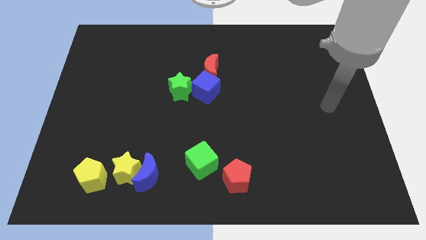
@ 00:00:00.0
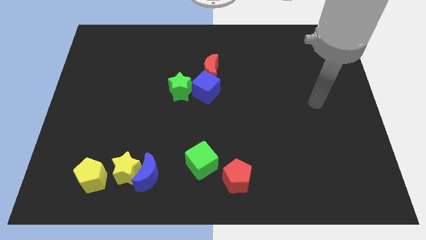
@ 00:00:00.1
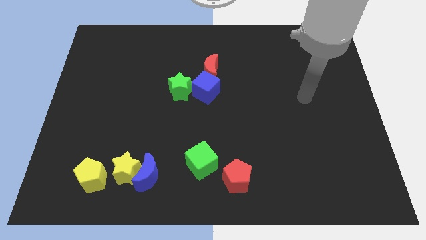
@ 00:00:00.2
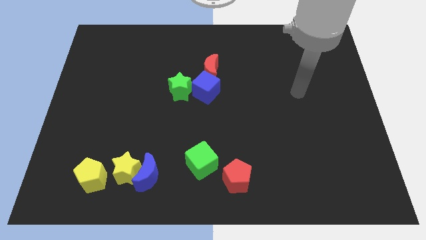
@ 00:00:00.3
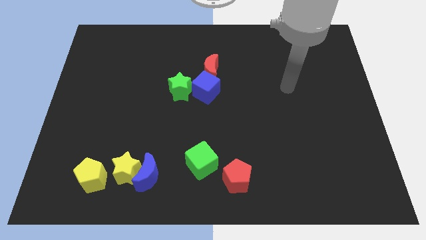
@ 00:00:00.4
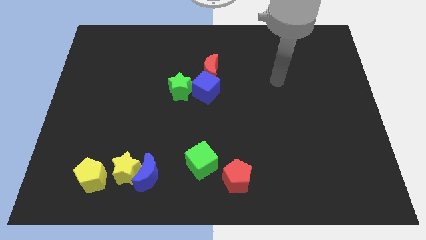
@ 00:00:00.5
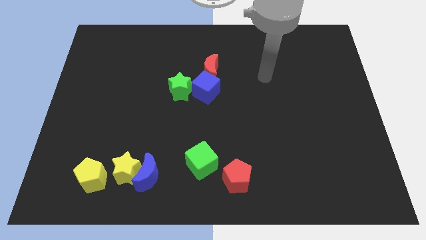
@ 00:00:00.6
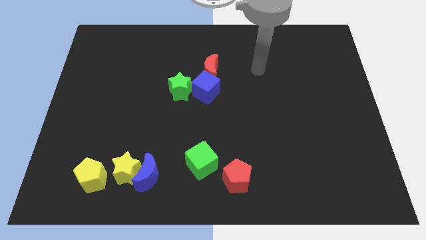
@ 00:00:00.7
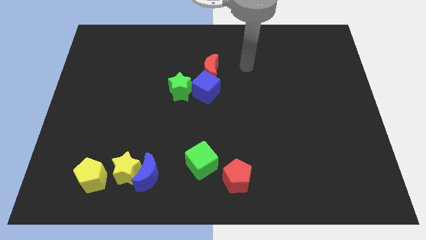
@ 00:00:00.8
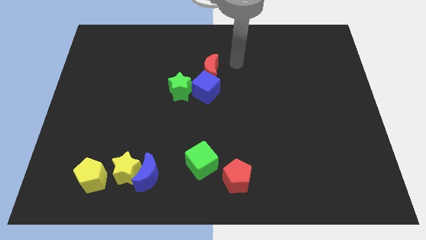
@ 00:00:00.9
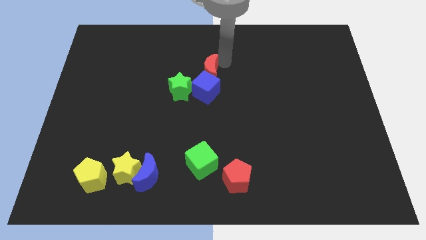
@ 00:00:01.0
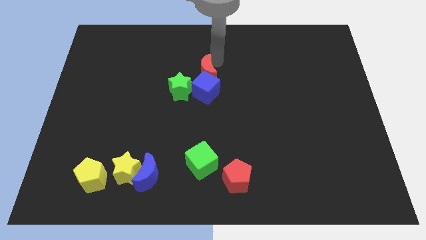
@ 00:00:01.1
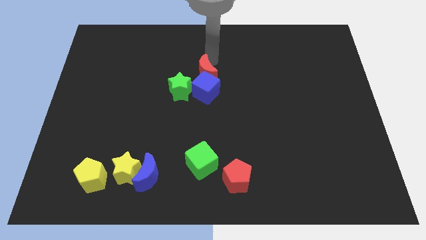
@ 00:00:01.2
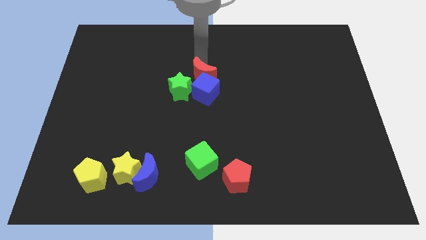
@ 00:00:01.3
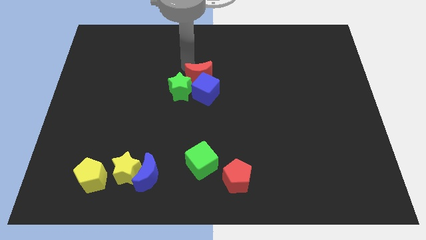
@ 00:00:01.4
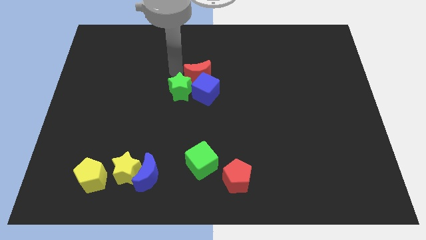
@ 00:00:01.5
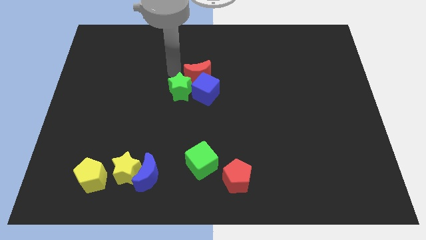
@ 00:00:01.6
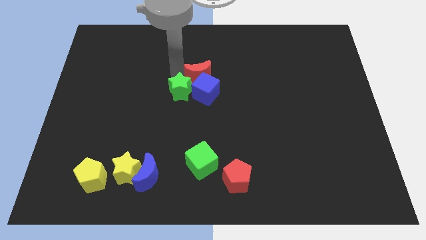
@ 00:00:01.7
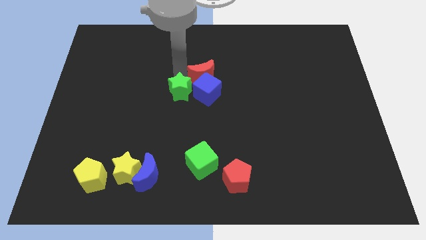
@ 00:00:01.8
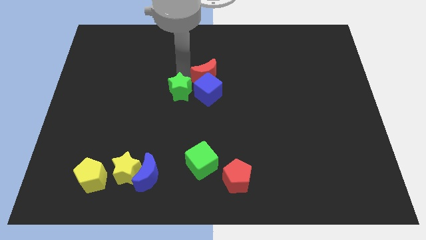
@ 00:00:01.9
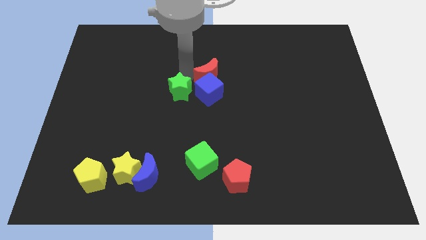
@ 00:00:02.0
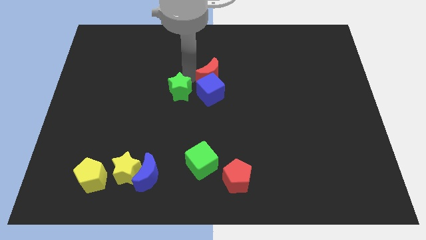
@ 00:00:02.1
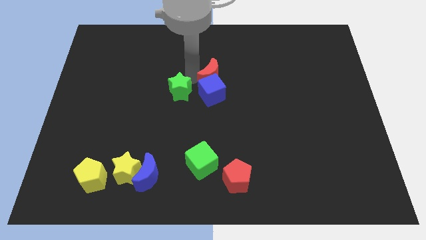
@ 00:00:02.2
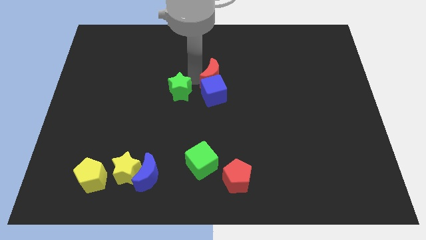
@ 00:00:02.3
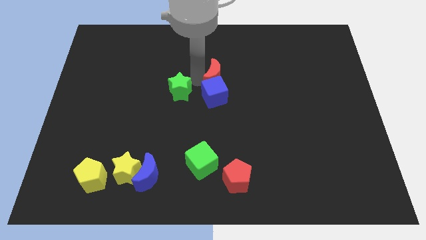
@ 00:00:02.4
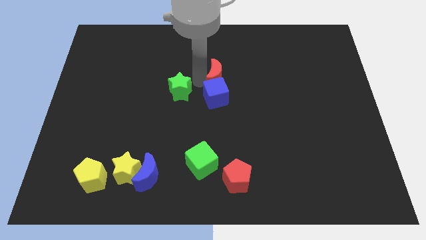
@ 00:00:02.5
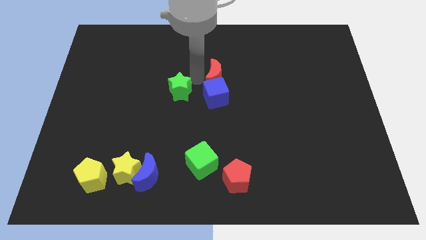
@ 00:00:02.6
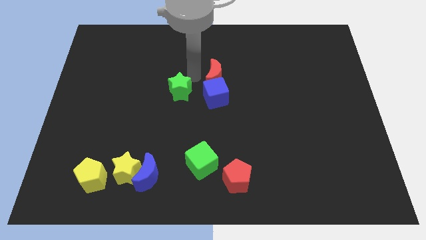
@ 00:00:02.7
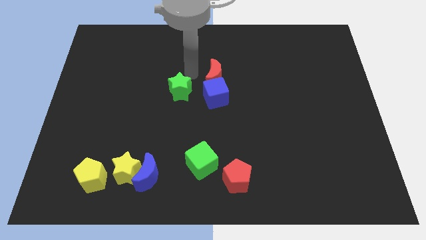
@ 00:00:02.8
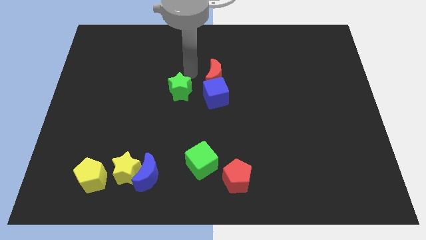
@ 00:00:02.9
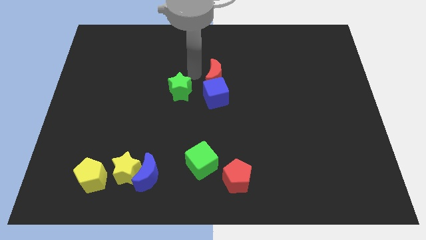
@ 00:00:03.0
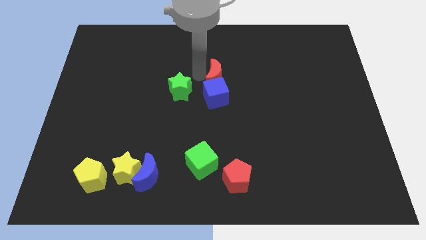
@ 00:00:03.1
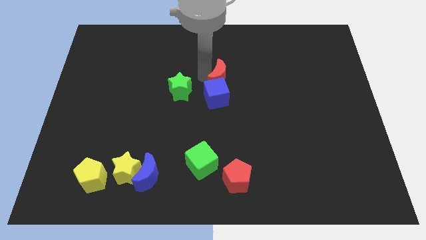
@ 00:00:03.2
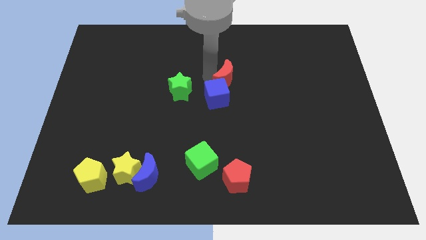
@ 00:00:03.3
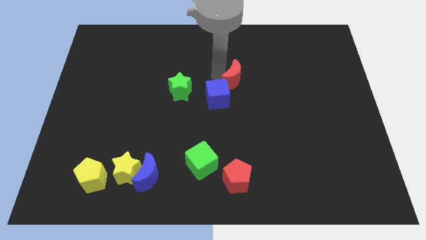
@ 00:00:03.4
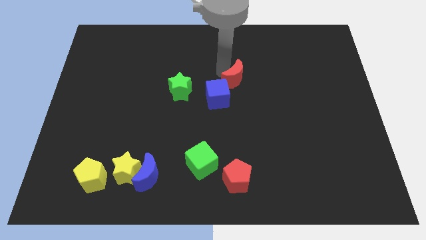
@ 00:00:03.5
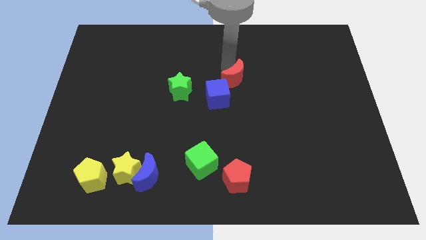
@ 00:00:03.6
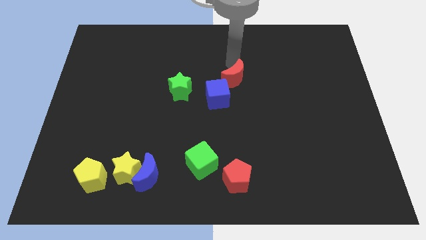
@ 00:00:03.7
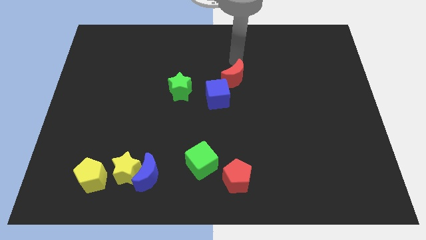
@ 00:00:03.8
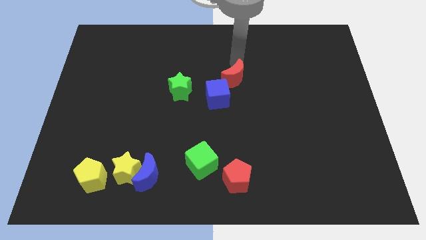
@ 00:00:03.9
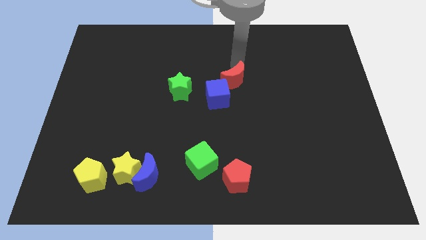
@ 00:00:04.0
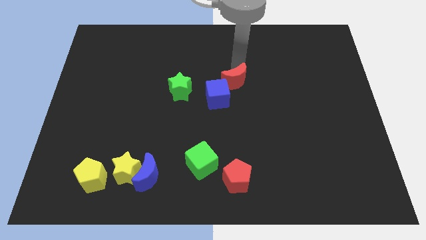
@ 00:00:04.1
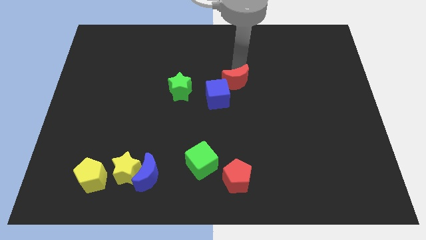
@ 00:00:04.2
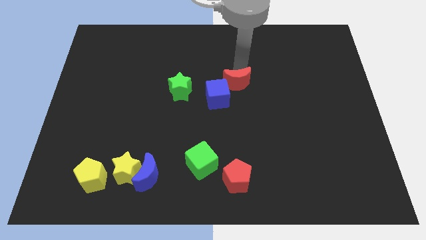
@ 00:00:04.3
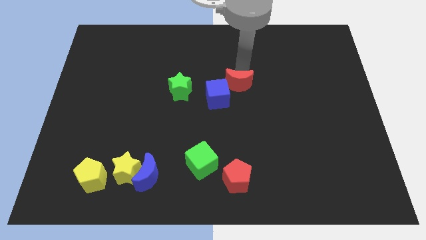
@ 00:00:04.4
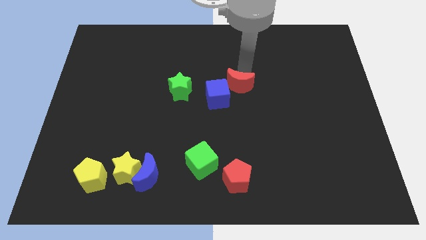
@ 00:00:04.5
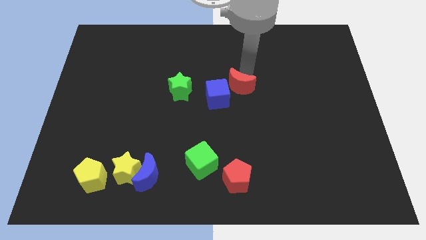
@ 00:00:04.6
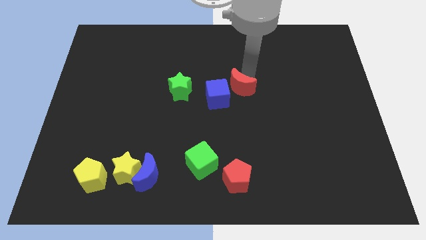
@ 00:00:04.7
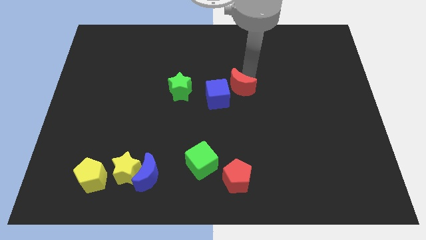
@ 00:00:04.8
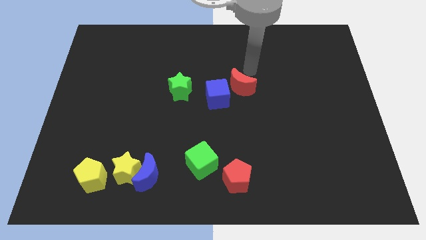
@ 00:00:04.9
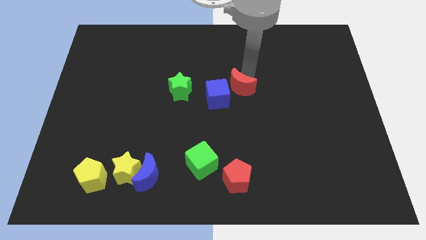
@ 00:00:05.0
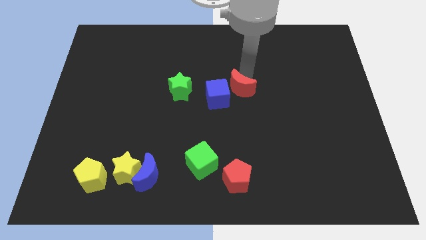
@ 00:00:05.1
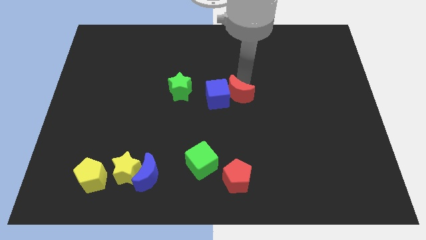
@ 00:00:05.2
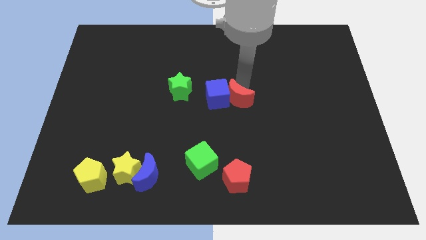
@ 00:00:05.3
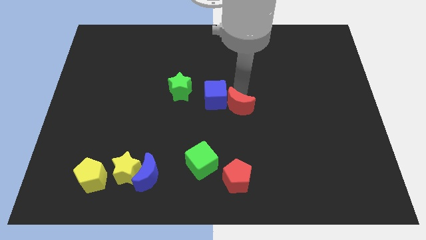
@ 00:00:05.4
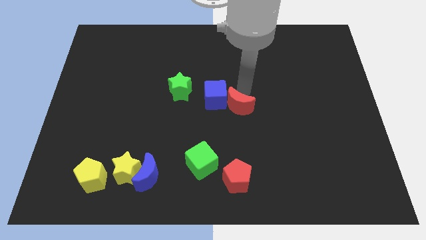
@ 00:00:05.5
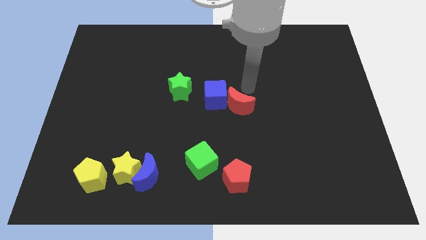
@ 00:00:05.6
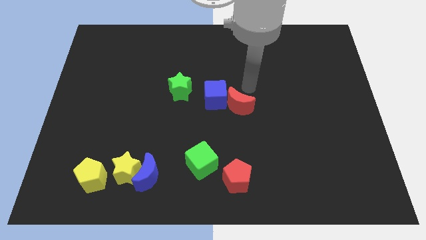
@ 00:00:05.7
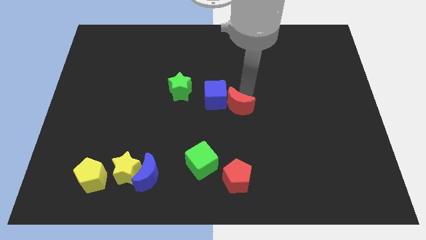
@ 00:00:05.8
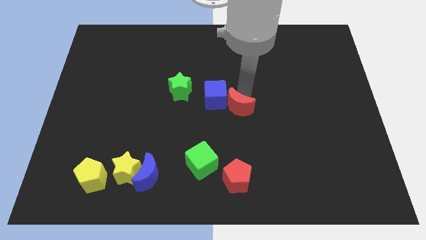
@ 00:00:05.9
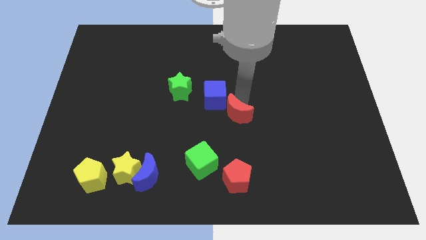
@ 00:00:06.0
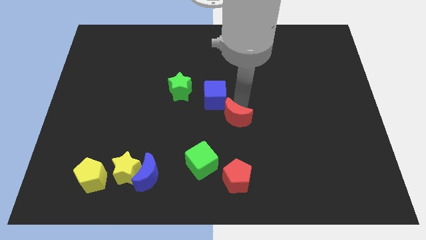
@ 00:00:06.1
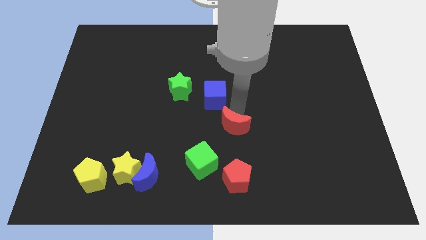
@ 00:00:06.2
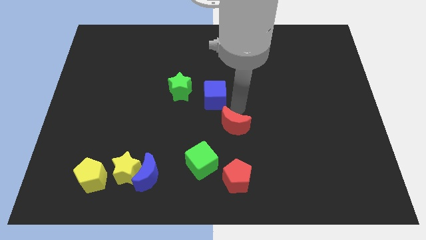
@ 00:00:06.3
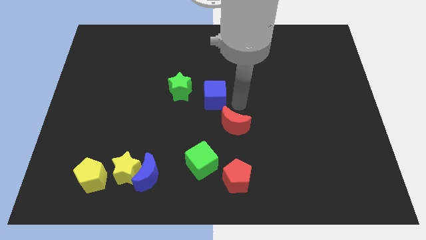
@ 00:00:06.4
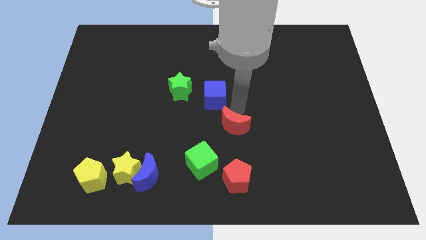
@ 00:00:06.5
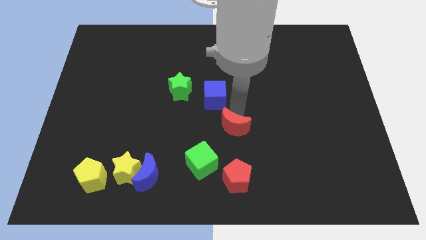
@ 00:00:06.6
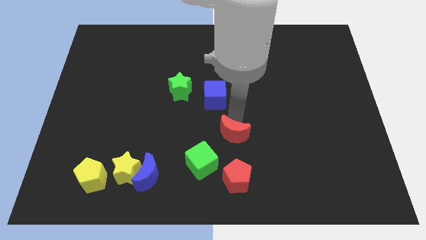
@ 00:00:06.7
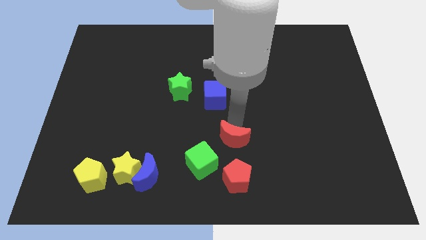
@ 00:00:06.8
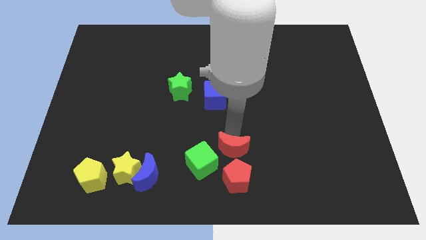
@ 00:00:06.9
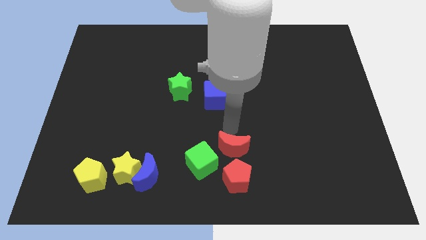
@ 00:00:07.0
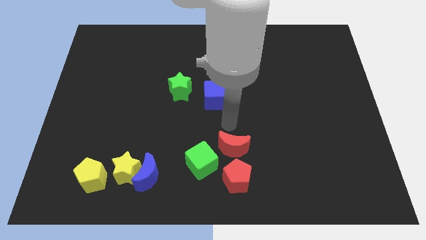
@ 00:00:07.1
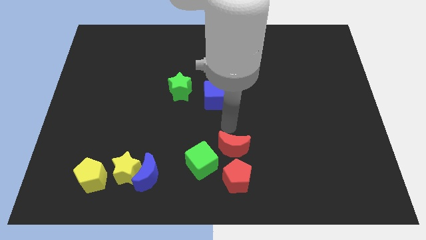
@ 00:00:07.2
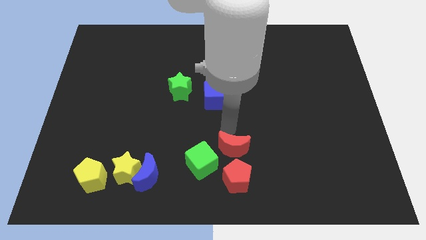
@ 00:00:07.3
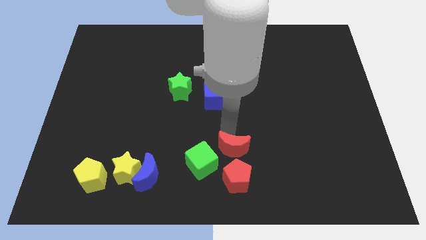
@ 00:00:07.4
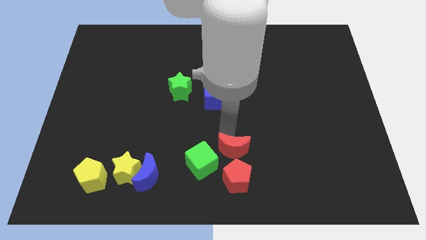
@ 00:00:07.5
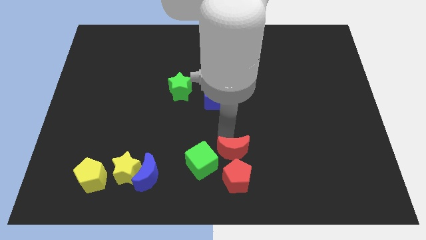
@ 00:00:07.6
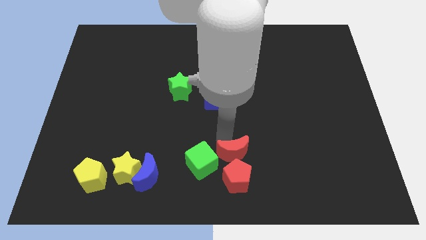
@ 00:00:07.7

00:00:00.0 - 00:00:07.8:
push the red moon next to the red pentagon
